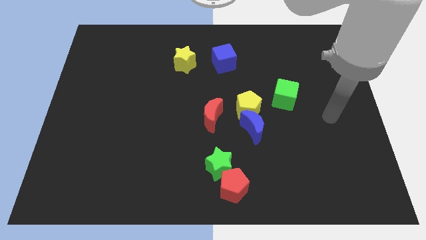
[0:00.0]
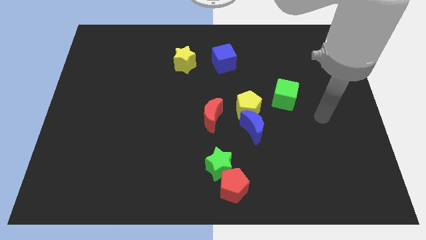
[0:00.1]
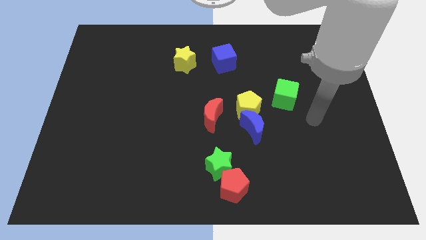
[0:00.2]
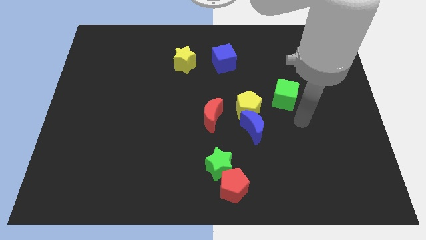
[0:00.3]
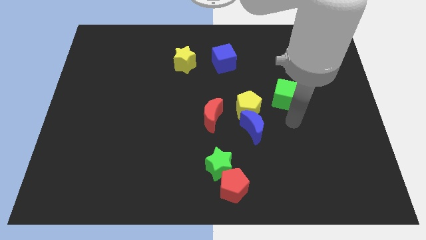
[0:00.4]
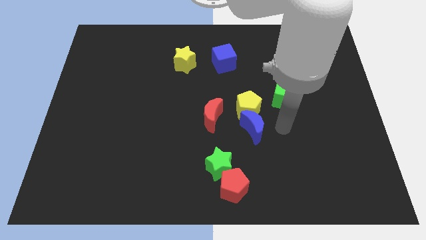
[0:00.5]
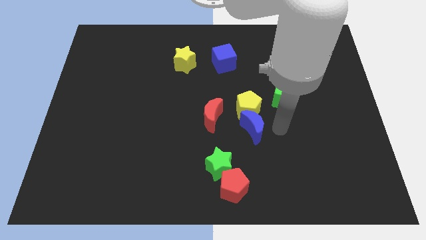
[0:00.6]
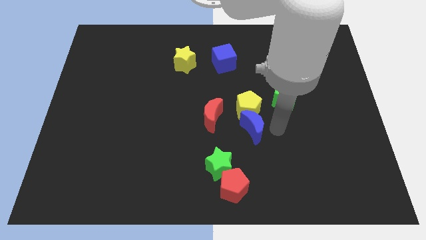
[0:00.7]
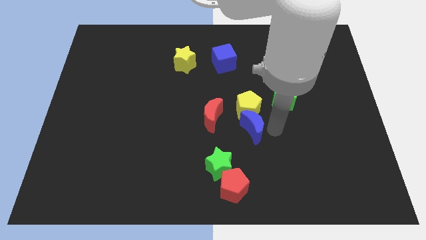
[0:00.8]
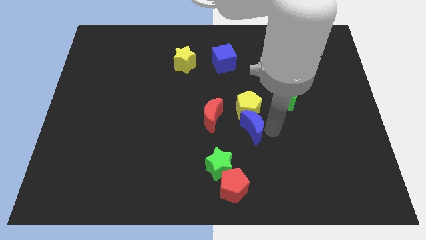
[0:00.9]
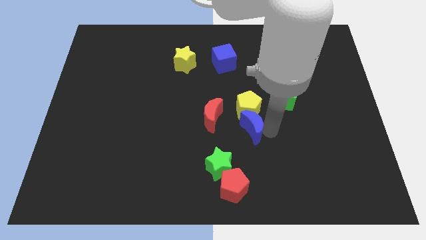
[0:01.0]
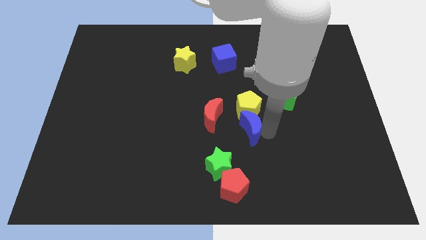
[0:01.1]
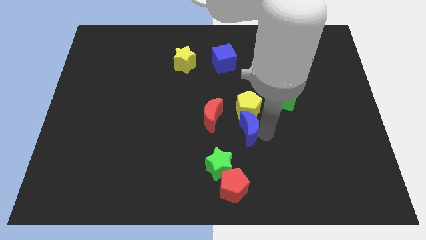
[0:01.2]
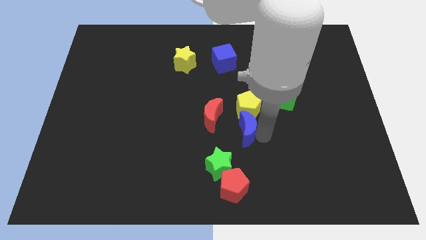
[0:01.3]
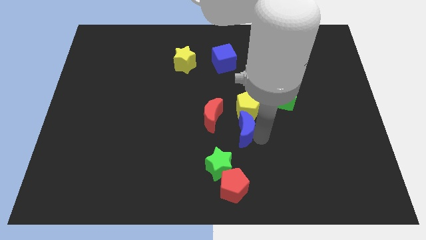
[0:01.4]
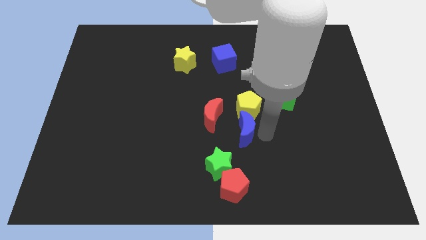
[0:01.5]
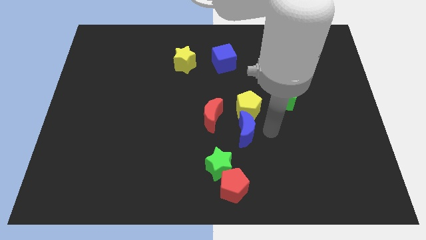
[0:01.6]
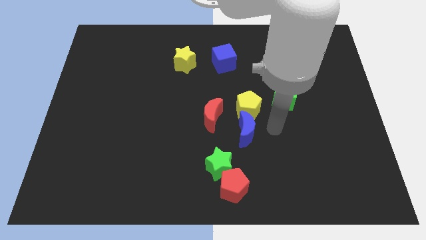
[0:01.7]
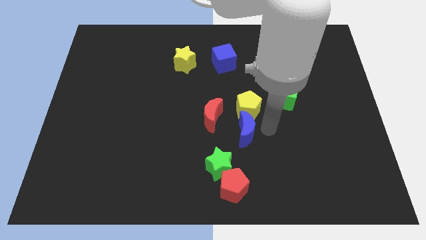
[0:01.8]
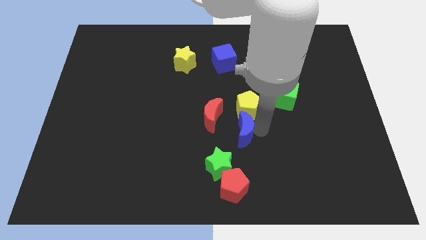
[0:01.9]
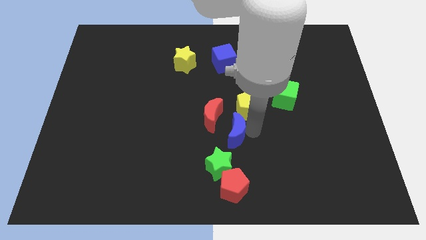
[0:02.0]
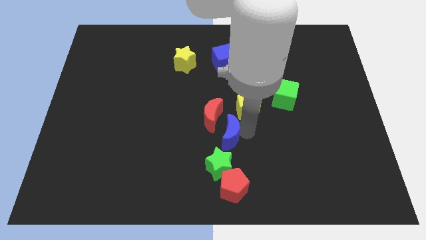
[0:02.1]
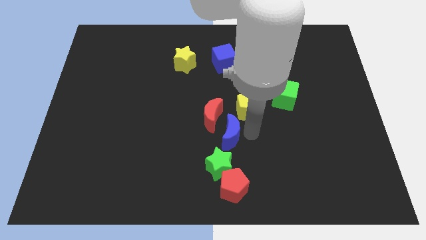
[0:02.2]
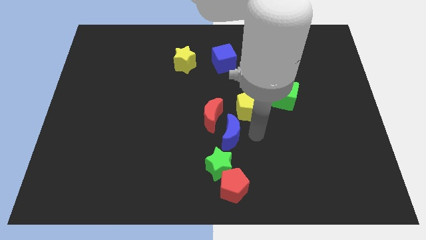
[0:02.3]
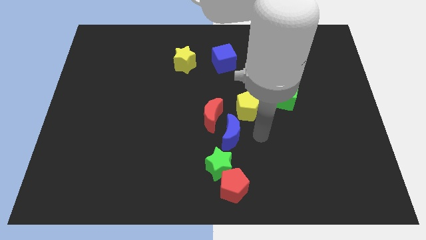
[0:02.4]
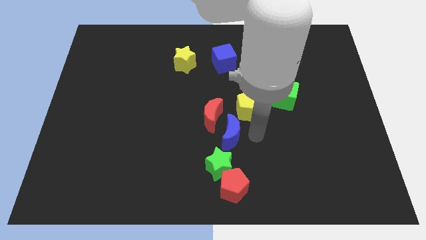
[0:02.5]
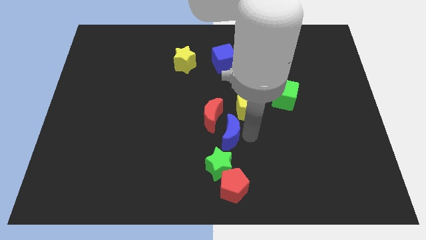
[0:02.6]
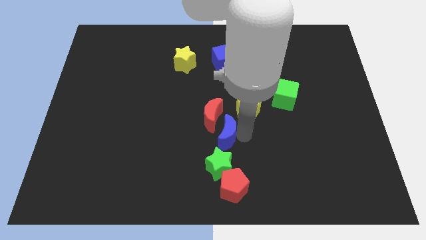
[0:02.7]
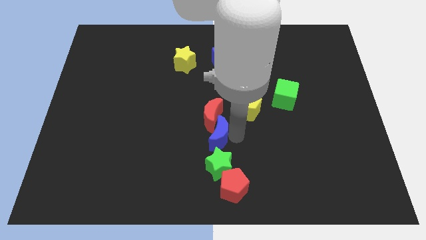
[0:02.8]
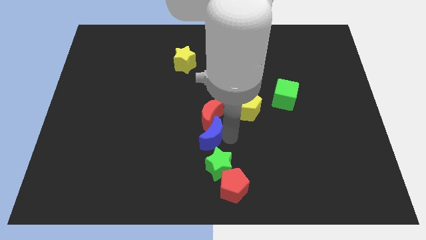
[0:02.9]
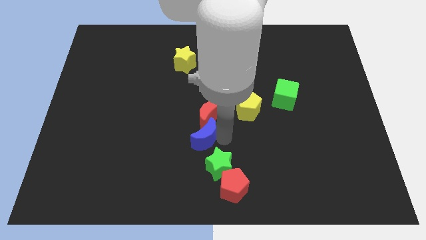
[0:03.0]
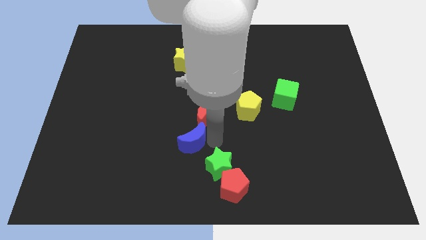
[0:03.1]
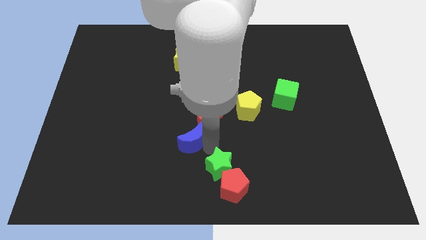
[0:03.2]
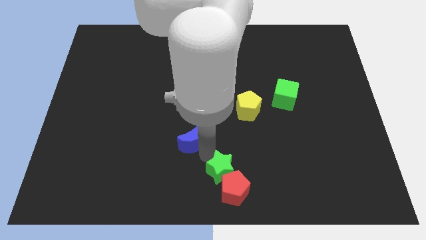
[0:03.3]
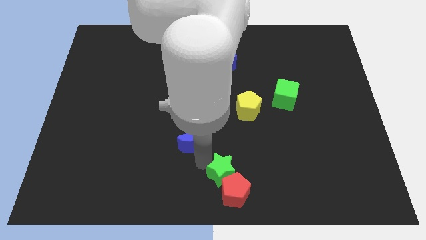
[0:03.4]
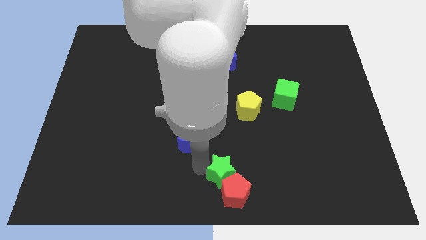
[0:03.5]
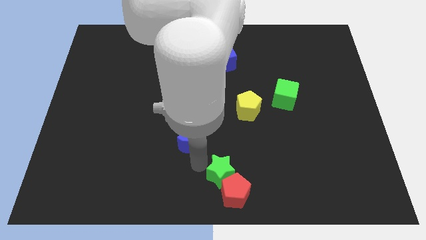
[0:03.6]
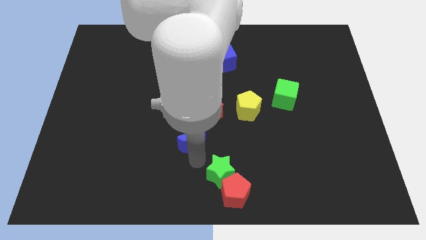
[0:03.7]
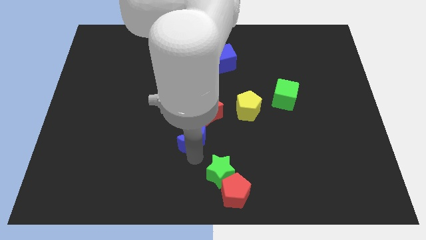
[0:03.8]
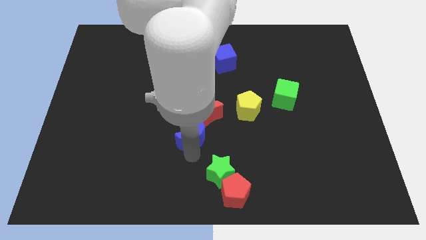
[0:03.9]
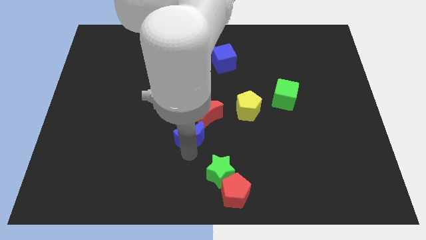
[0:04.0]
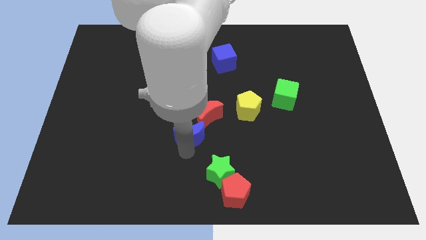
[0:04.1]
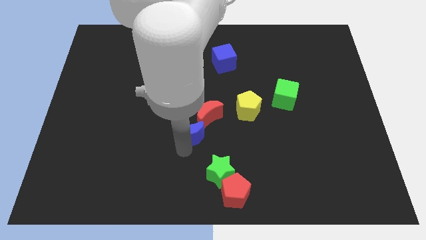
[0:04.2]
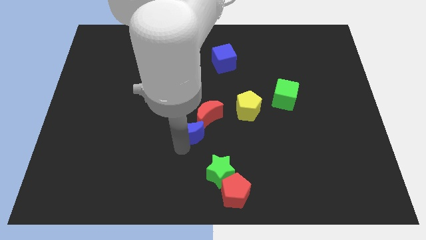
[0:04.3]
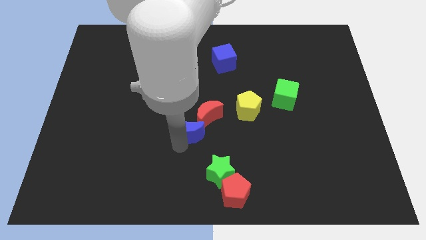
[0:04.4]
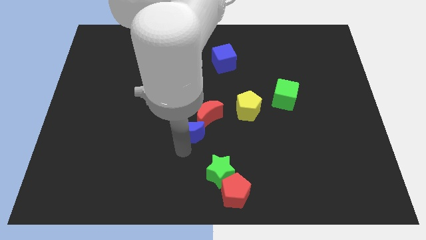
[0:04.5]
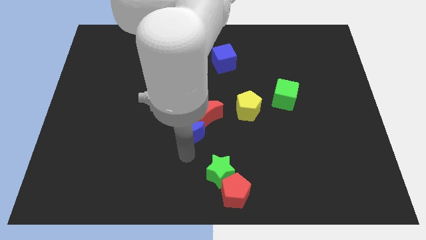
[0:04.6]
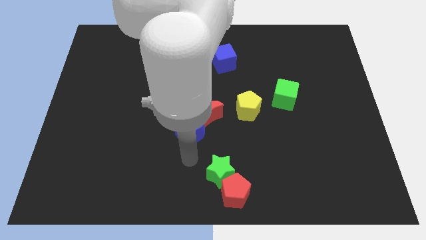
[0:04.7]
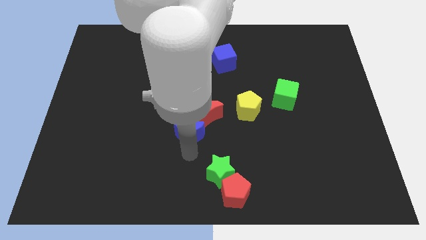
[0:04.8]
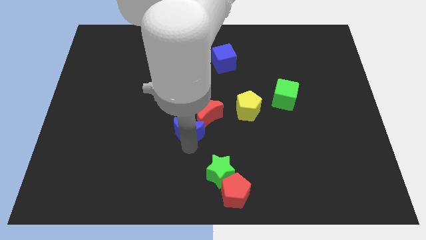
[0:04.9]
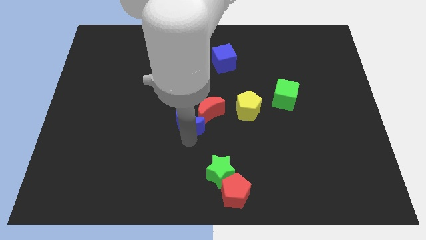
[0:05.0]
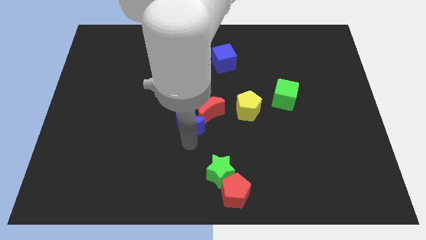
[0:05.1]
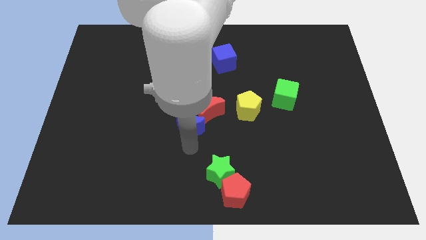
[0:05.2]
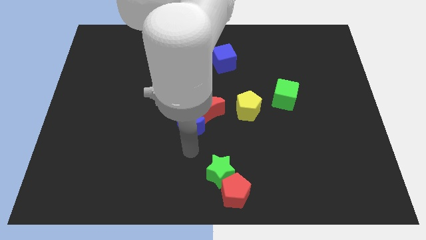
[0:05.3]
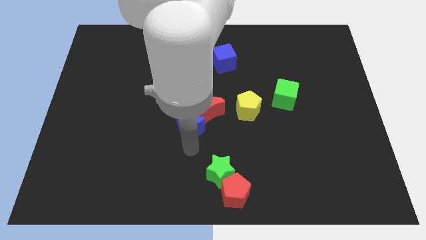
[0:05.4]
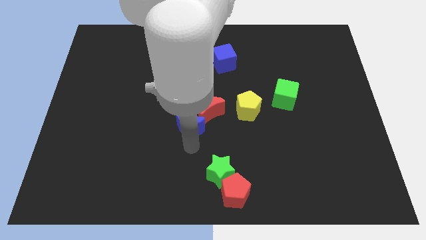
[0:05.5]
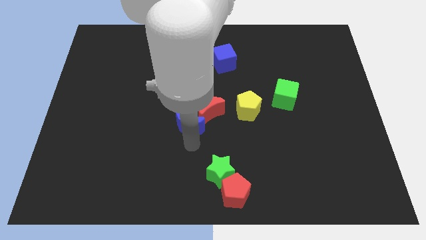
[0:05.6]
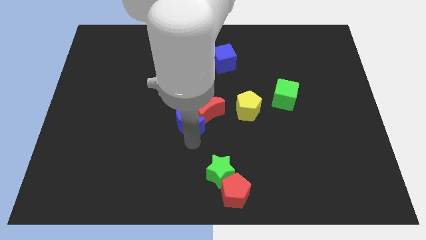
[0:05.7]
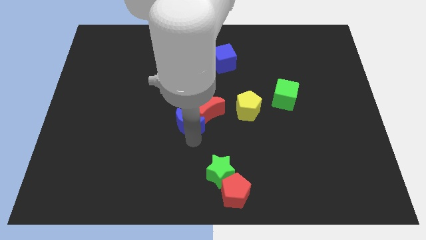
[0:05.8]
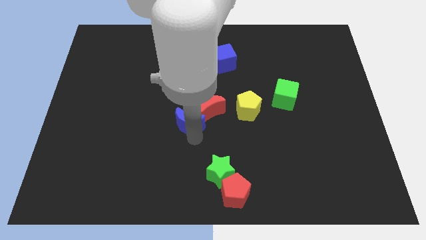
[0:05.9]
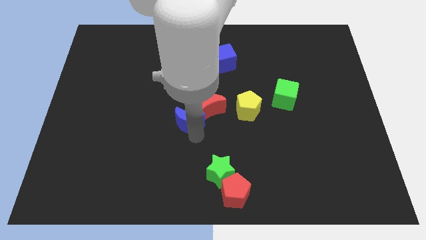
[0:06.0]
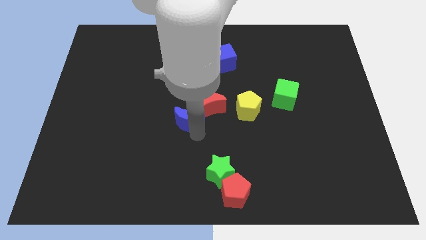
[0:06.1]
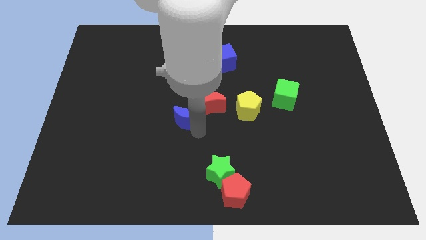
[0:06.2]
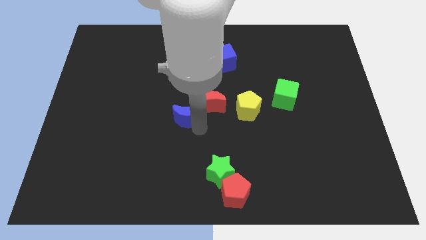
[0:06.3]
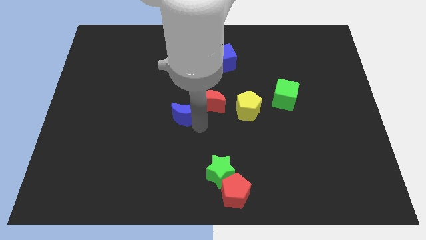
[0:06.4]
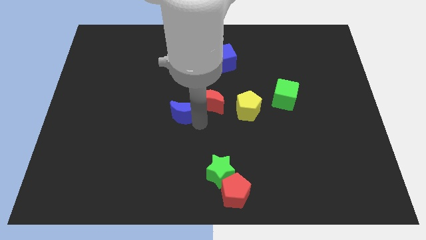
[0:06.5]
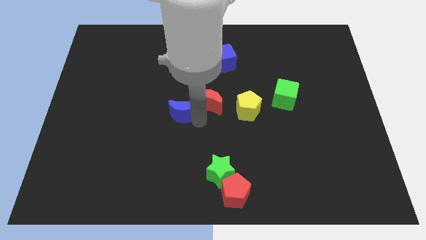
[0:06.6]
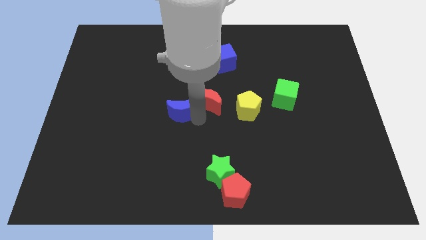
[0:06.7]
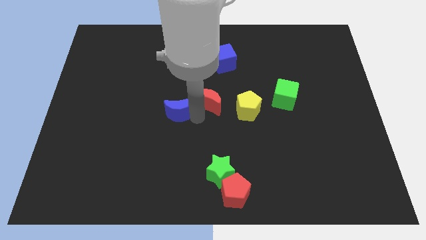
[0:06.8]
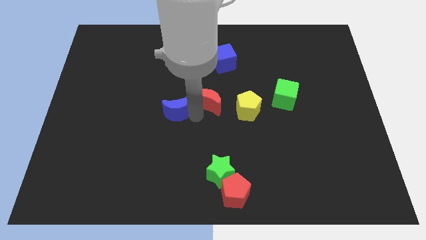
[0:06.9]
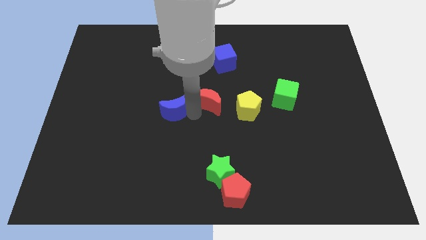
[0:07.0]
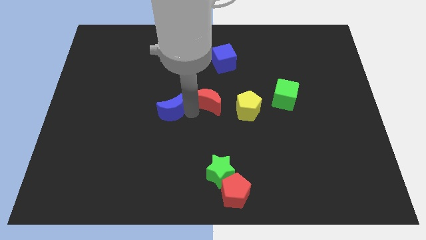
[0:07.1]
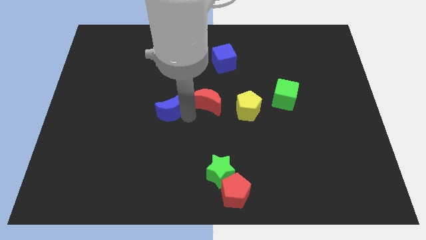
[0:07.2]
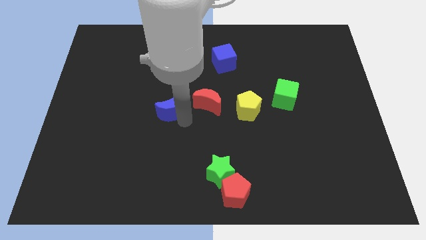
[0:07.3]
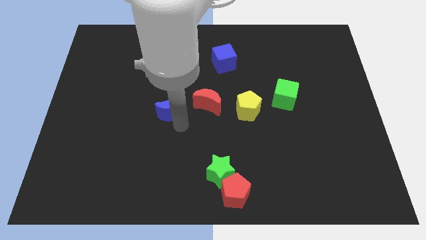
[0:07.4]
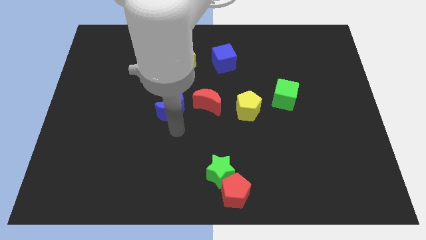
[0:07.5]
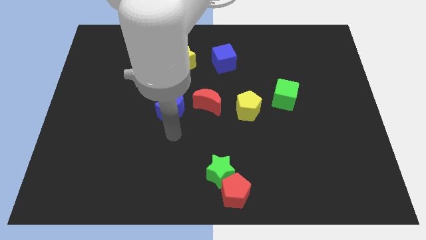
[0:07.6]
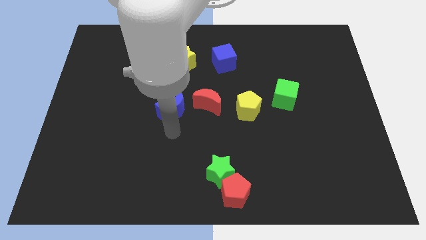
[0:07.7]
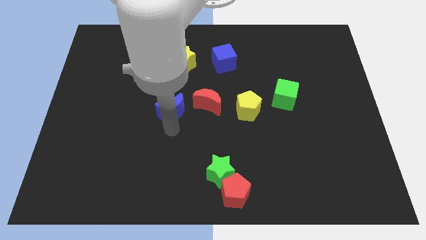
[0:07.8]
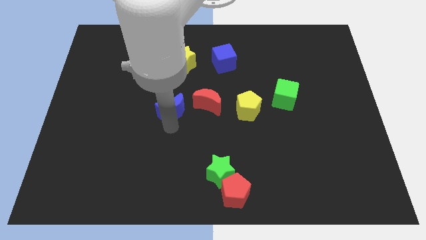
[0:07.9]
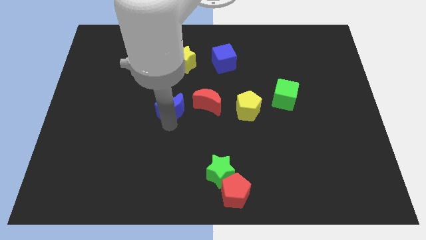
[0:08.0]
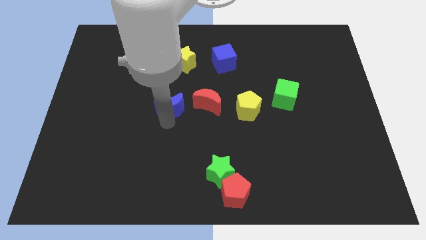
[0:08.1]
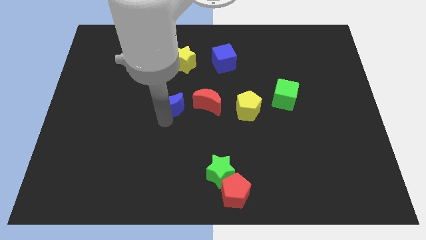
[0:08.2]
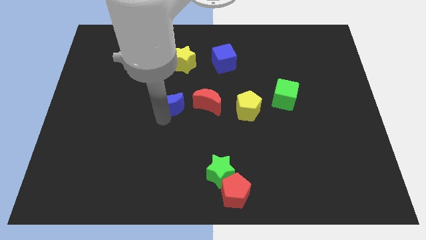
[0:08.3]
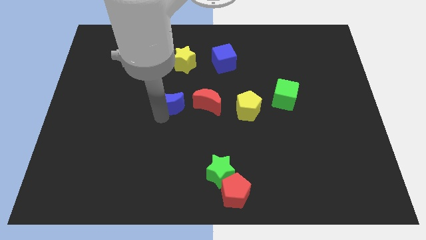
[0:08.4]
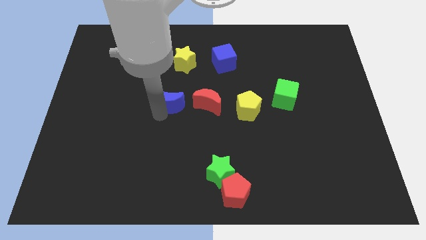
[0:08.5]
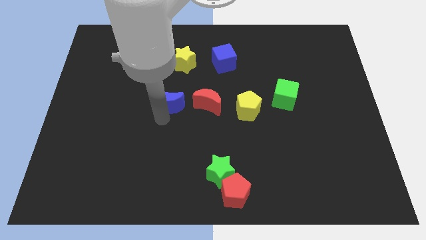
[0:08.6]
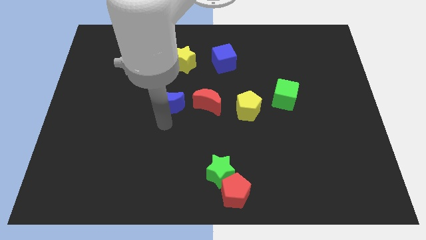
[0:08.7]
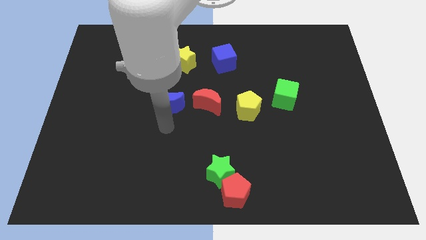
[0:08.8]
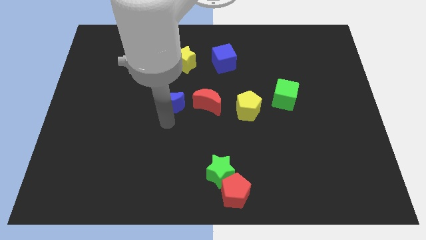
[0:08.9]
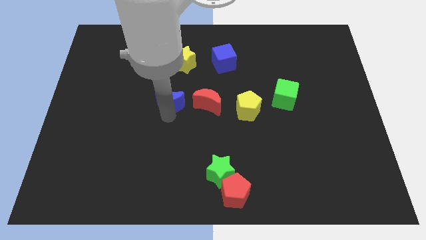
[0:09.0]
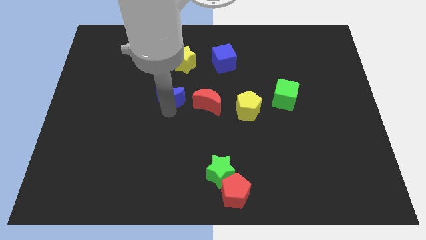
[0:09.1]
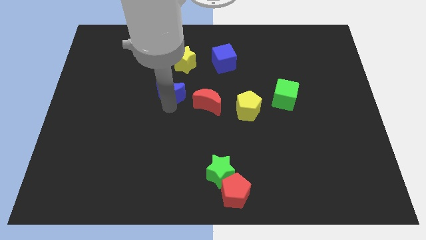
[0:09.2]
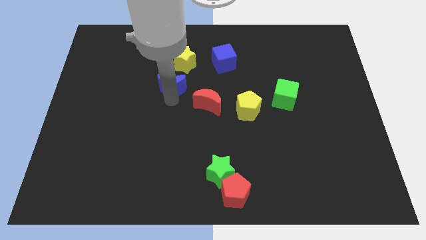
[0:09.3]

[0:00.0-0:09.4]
push the blue moon diagonally upwards and to the left
